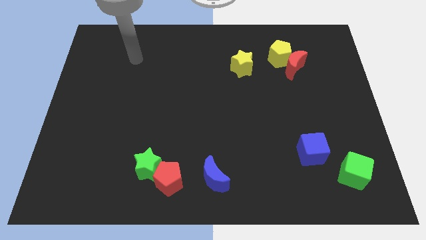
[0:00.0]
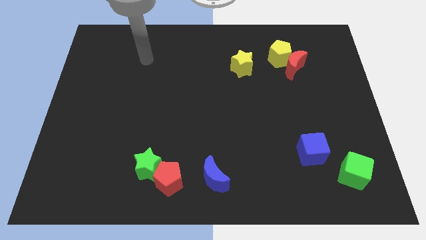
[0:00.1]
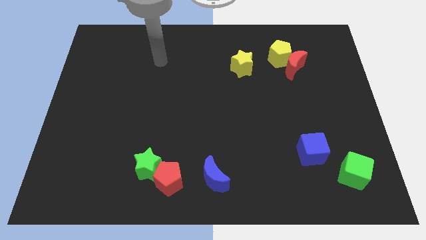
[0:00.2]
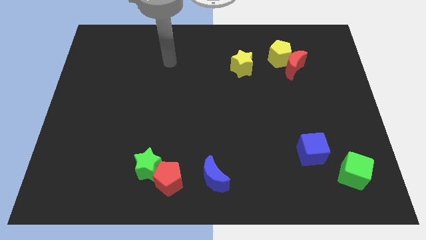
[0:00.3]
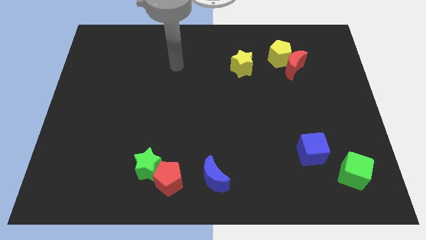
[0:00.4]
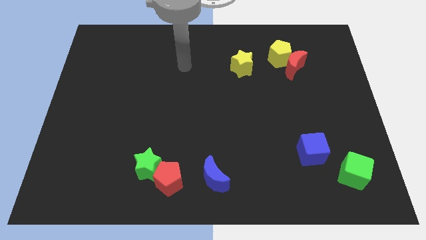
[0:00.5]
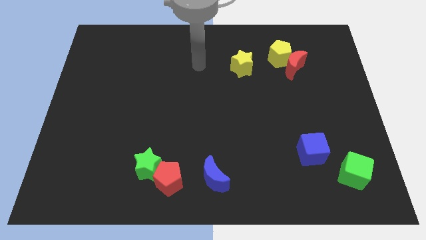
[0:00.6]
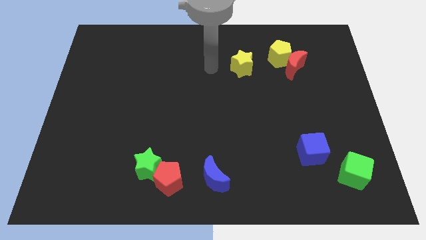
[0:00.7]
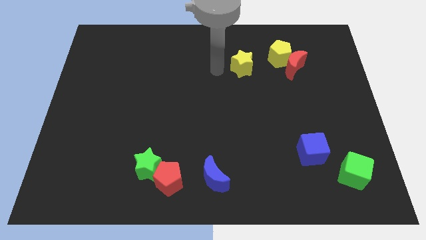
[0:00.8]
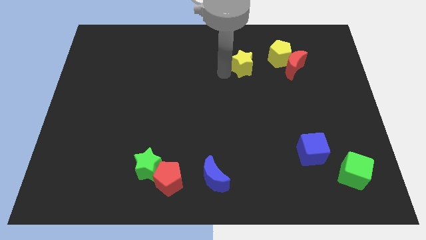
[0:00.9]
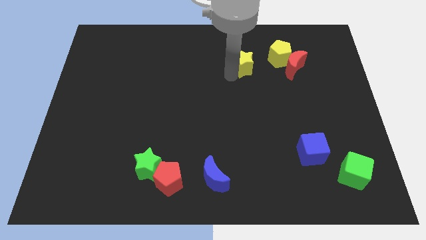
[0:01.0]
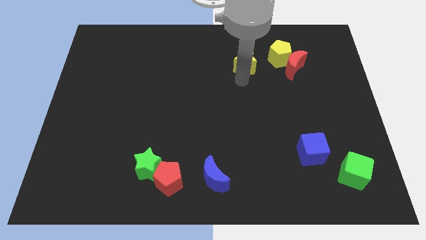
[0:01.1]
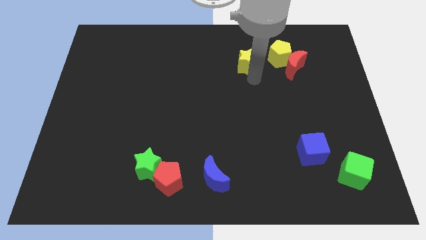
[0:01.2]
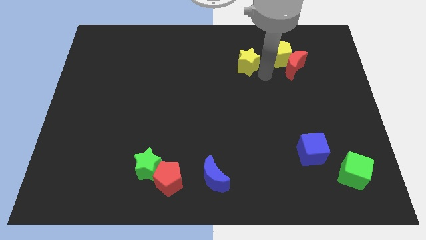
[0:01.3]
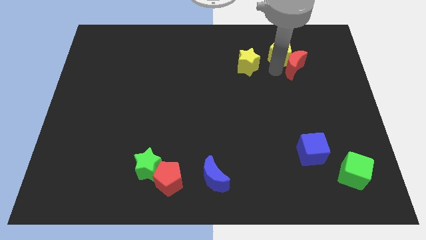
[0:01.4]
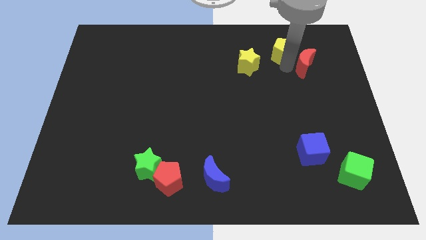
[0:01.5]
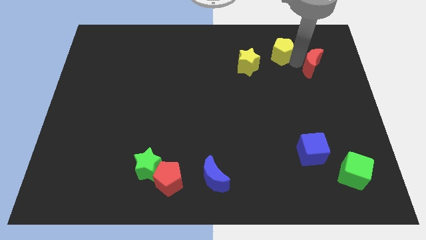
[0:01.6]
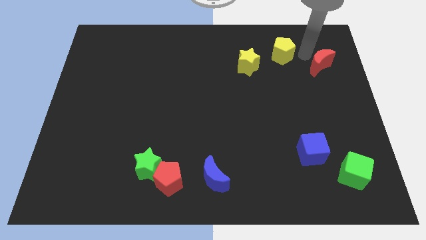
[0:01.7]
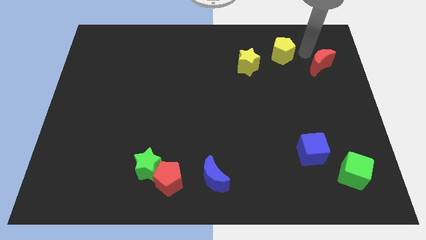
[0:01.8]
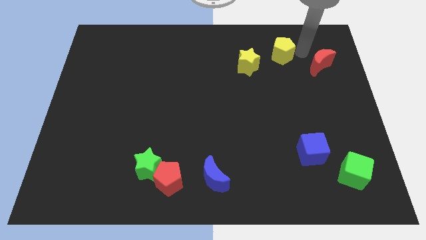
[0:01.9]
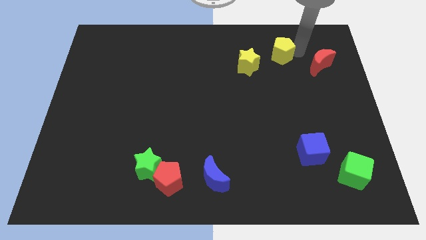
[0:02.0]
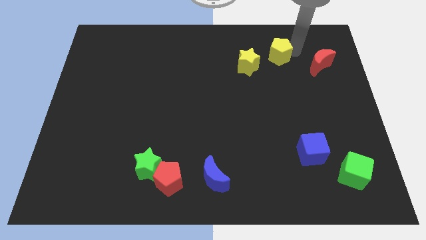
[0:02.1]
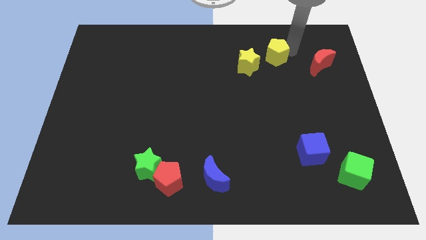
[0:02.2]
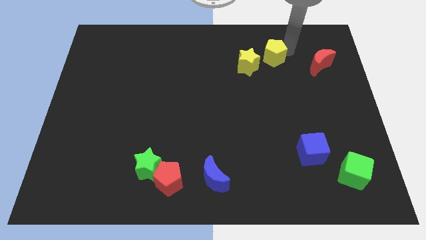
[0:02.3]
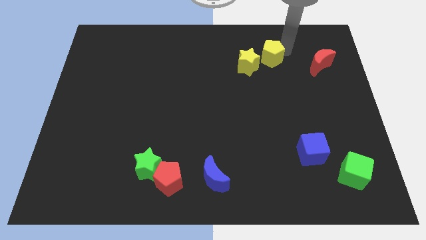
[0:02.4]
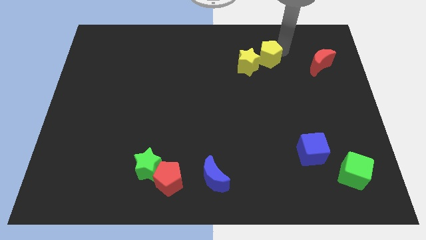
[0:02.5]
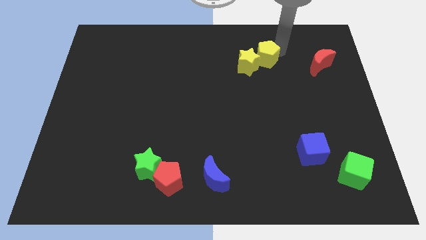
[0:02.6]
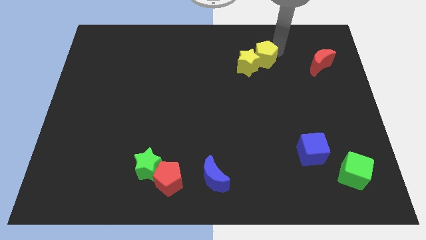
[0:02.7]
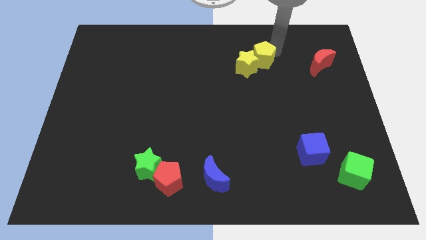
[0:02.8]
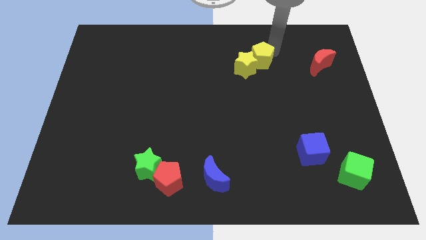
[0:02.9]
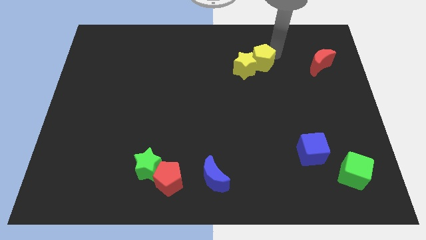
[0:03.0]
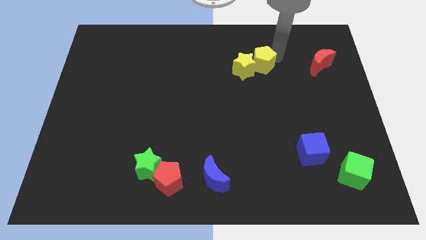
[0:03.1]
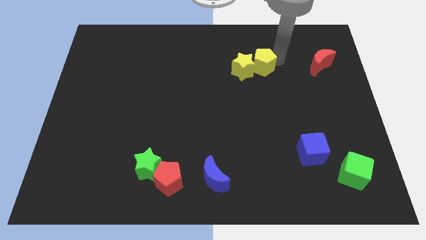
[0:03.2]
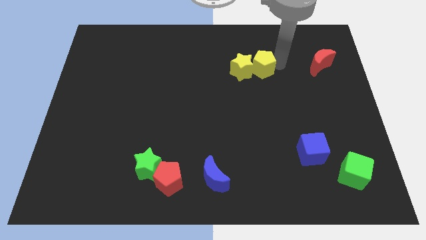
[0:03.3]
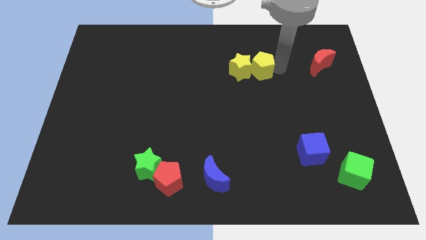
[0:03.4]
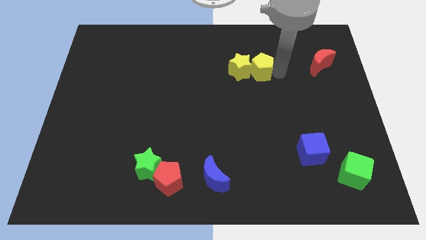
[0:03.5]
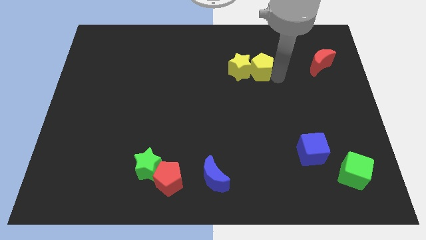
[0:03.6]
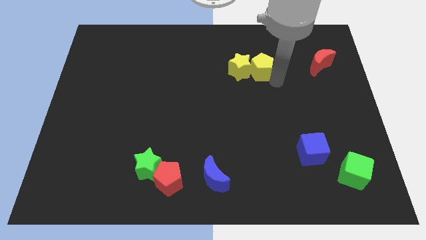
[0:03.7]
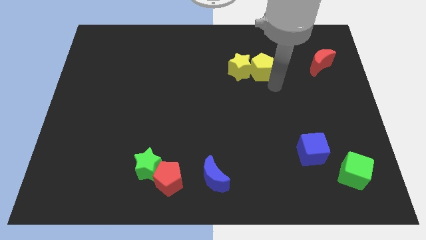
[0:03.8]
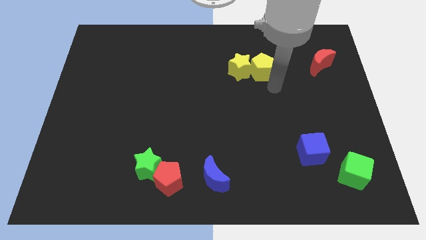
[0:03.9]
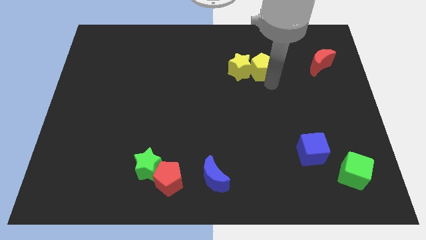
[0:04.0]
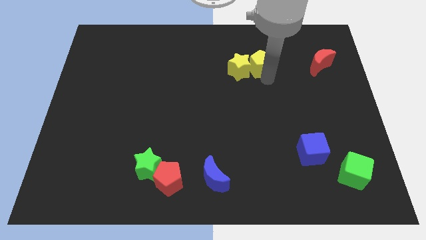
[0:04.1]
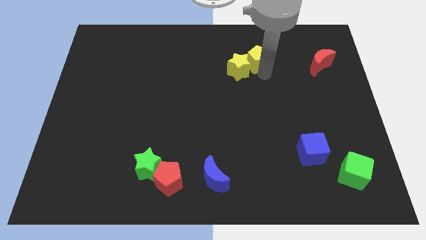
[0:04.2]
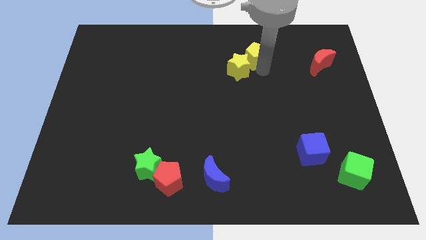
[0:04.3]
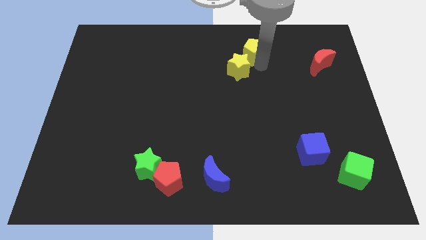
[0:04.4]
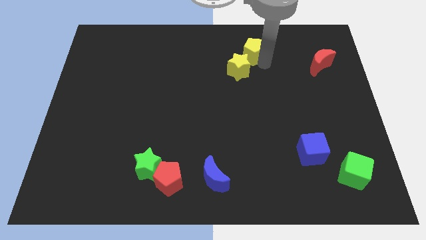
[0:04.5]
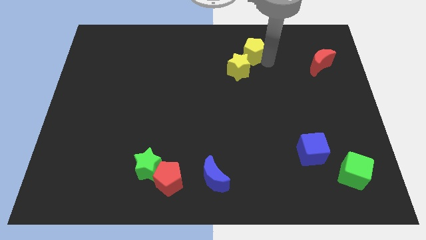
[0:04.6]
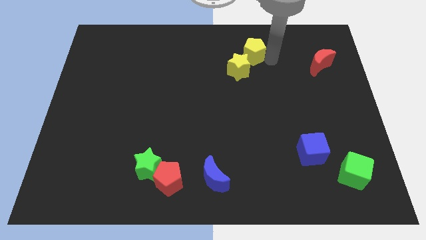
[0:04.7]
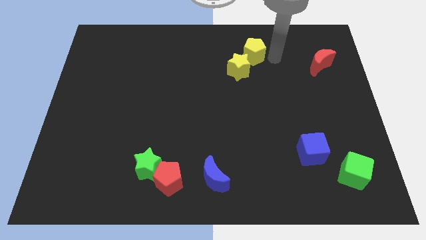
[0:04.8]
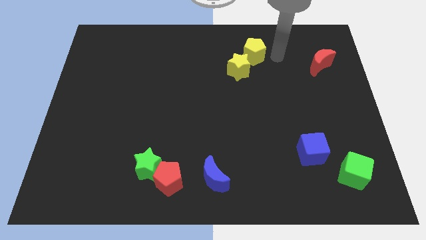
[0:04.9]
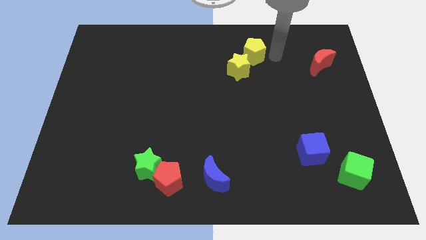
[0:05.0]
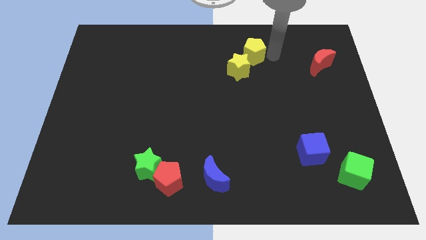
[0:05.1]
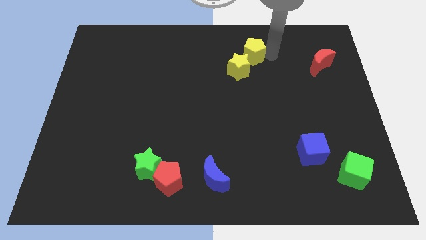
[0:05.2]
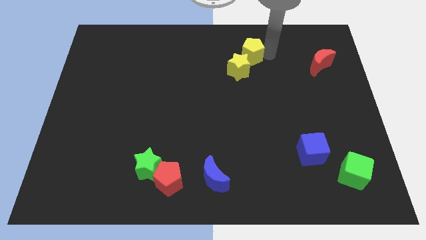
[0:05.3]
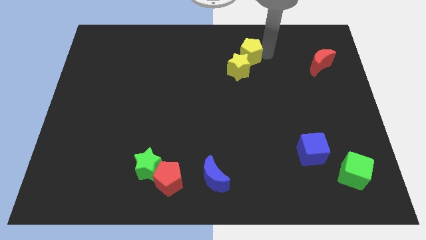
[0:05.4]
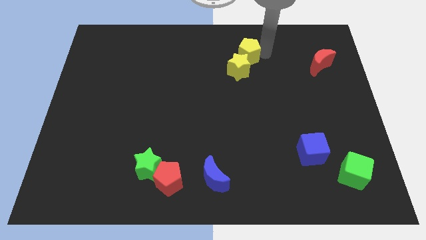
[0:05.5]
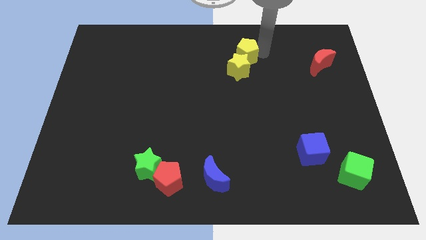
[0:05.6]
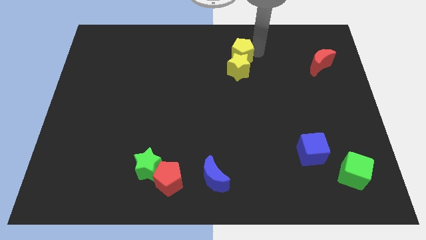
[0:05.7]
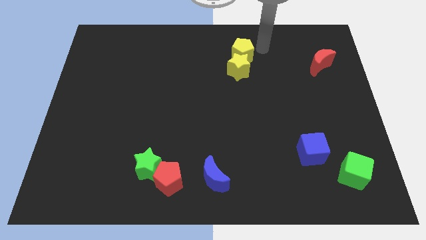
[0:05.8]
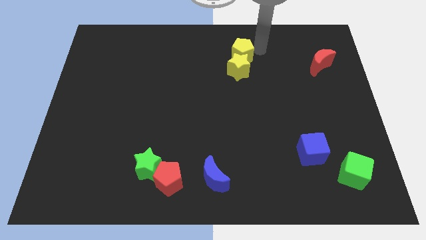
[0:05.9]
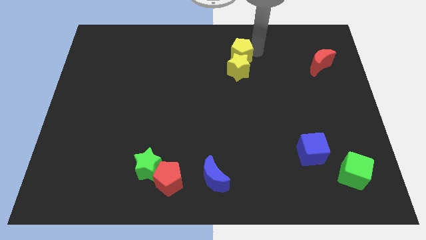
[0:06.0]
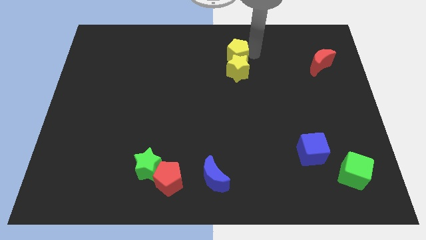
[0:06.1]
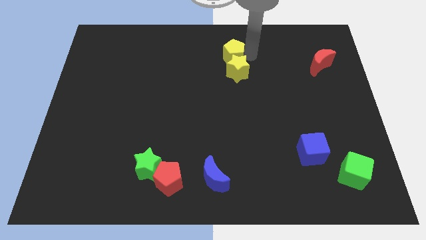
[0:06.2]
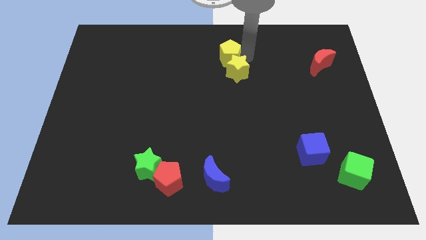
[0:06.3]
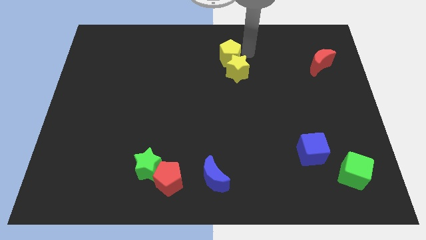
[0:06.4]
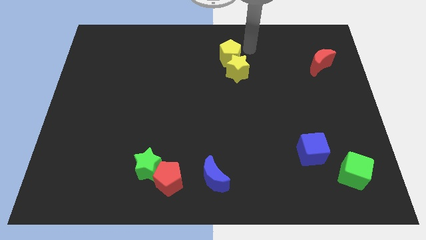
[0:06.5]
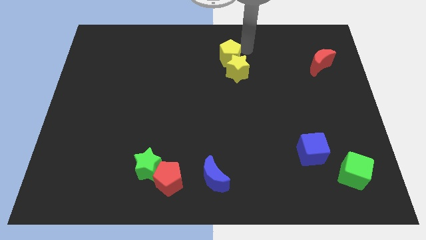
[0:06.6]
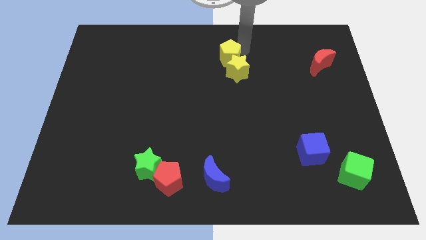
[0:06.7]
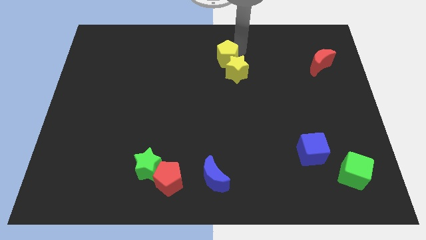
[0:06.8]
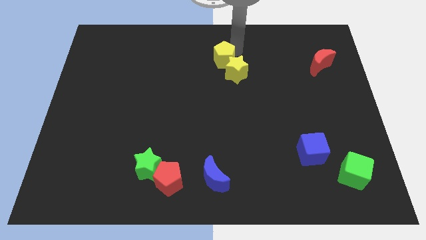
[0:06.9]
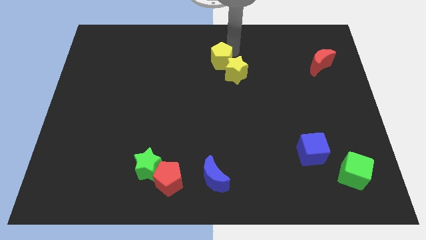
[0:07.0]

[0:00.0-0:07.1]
slide the yellow pentagon just left of the yellow star

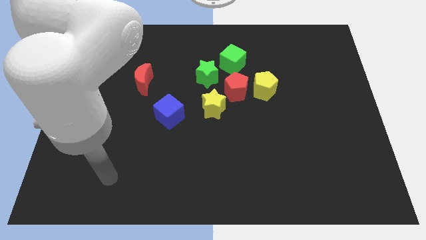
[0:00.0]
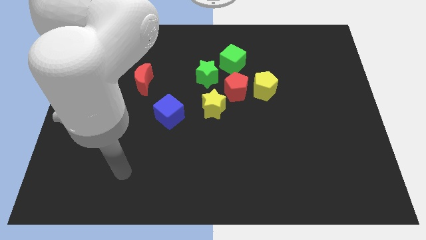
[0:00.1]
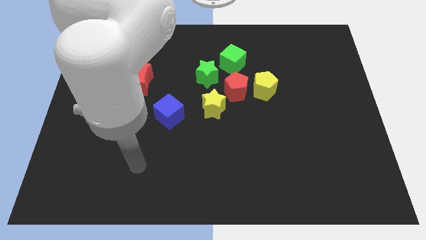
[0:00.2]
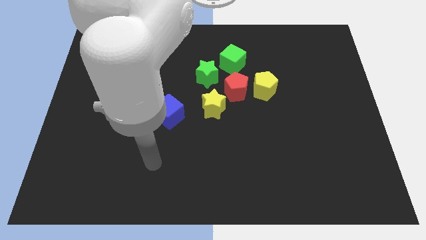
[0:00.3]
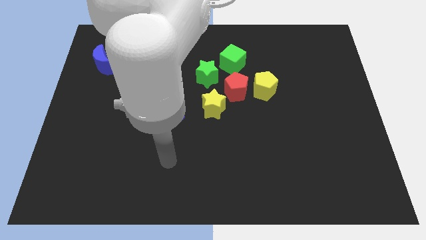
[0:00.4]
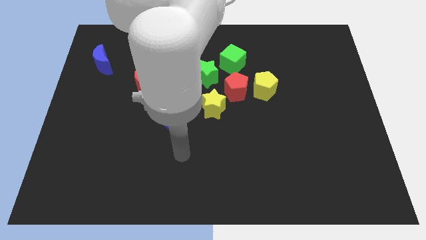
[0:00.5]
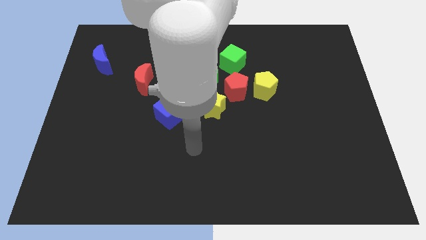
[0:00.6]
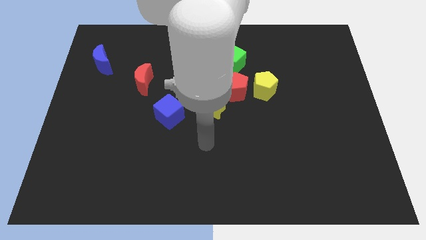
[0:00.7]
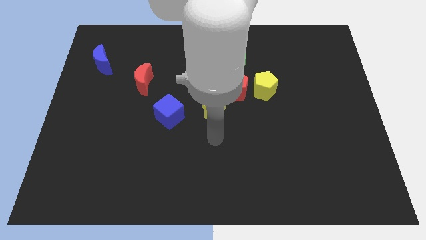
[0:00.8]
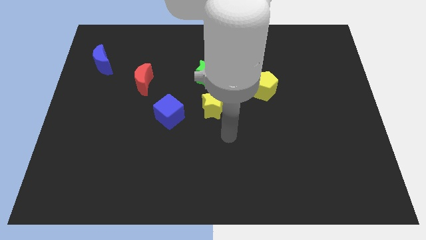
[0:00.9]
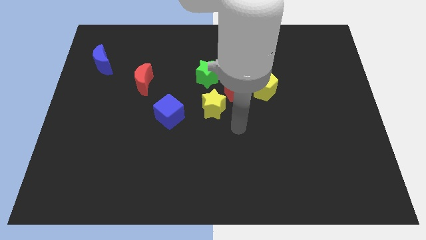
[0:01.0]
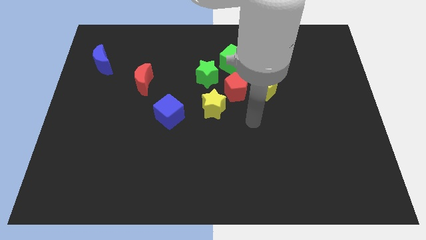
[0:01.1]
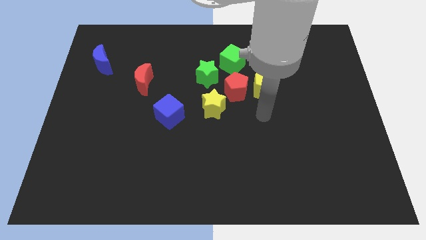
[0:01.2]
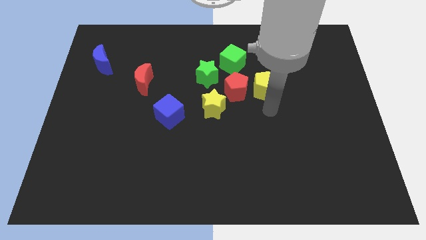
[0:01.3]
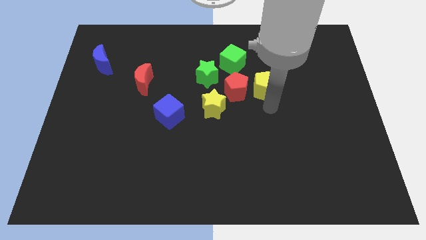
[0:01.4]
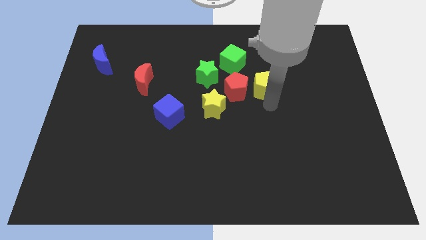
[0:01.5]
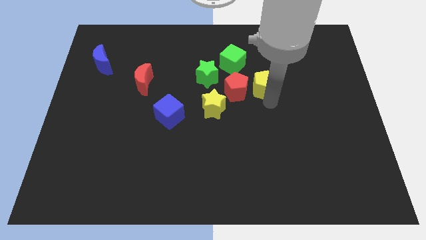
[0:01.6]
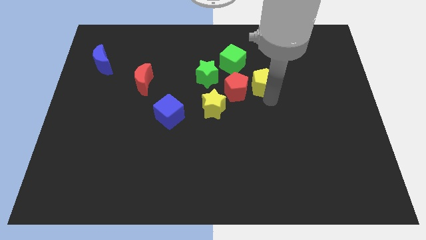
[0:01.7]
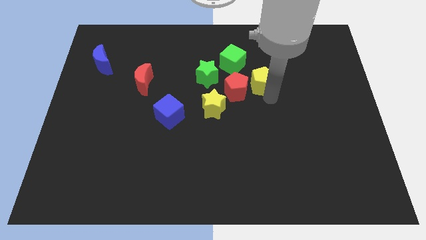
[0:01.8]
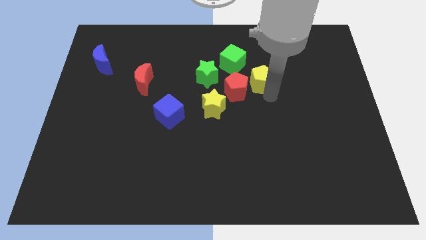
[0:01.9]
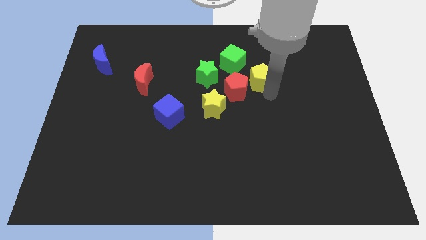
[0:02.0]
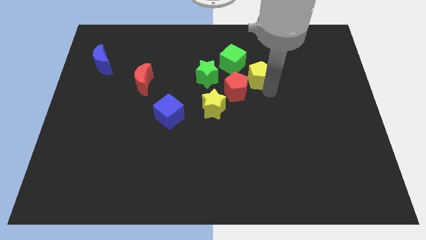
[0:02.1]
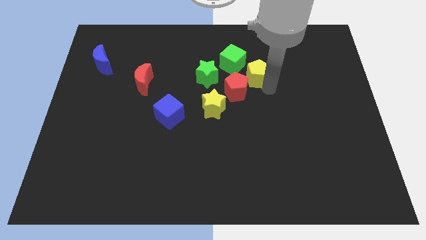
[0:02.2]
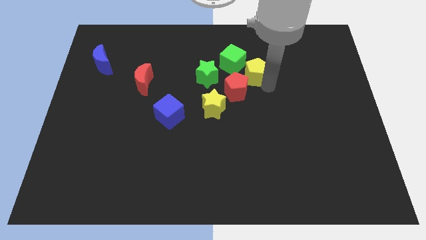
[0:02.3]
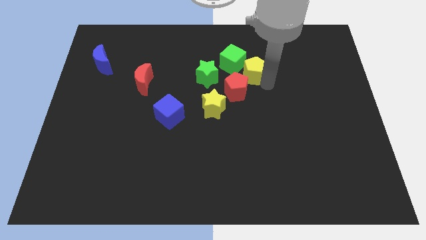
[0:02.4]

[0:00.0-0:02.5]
slide the yellow pentagon to the top side of the red pentagon
